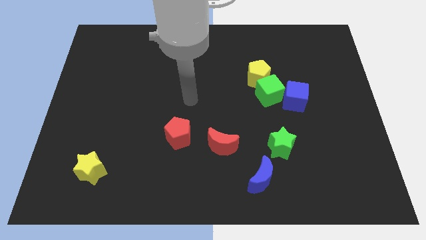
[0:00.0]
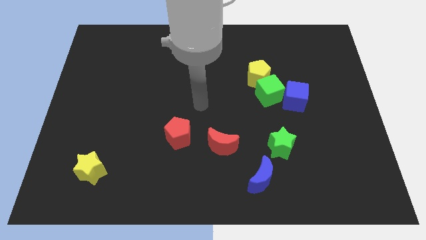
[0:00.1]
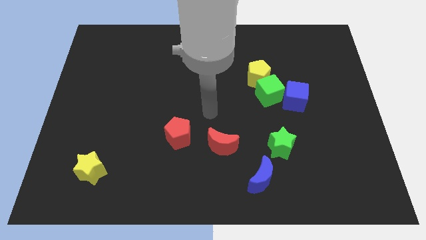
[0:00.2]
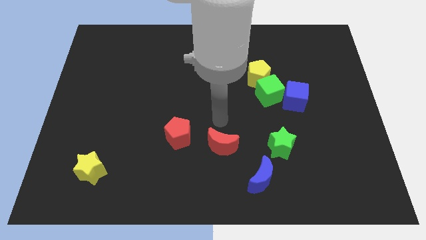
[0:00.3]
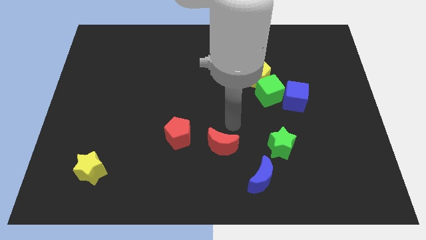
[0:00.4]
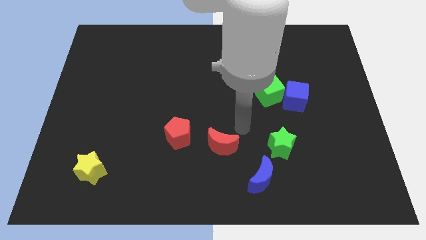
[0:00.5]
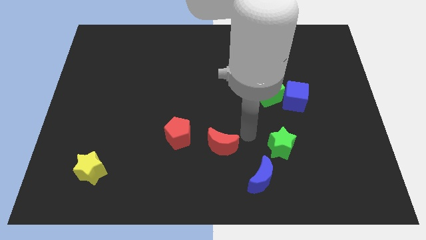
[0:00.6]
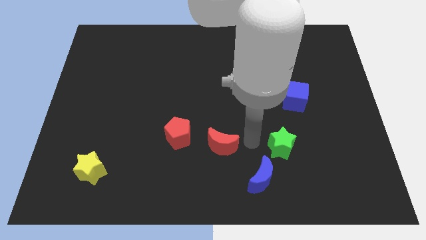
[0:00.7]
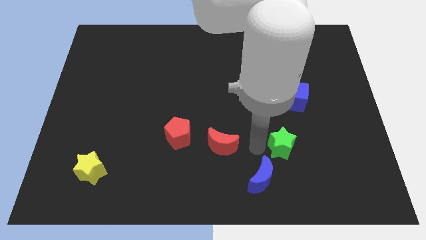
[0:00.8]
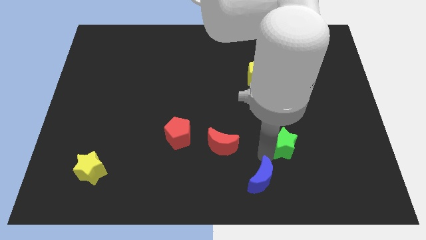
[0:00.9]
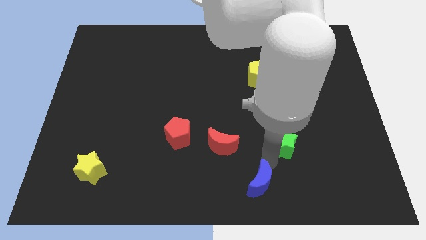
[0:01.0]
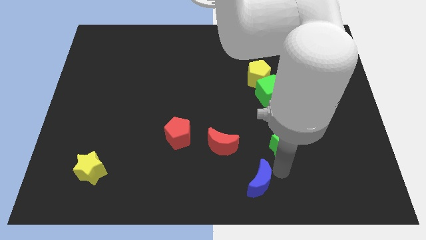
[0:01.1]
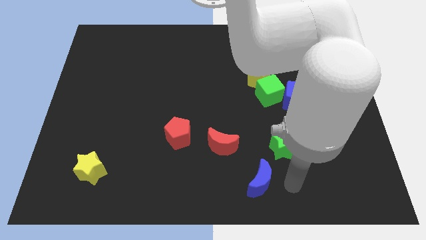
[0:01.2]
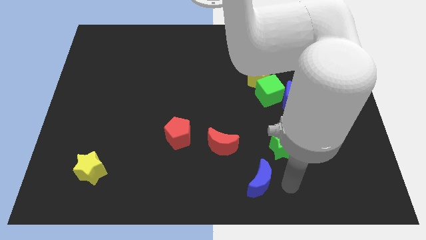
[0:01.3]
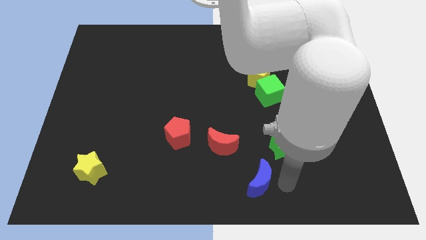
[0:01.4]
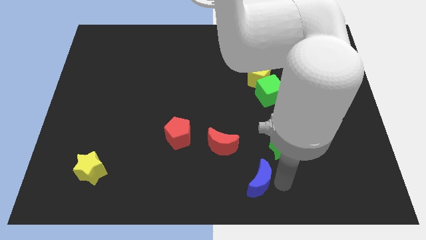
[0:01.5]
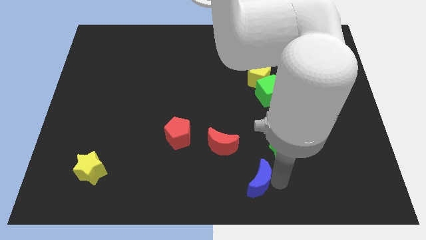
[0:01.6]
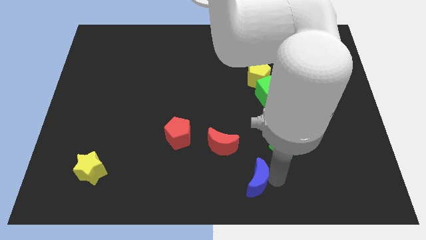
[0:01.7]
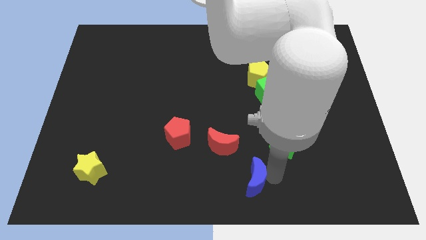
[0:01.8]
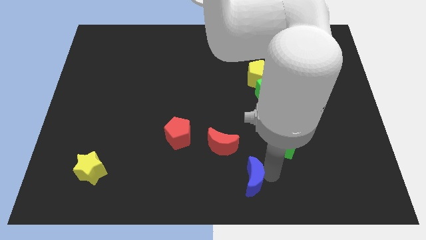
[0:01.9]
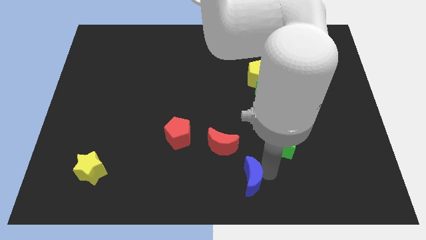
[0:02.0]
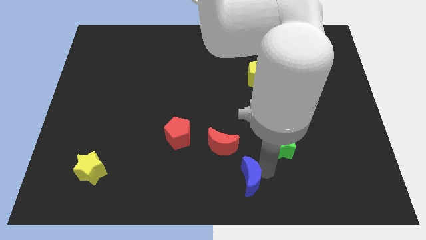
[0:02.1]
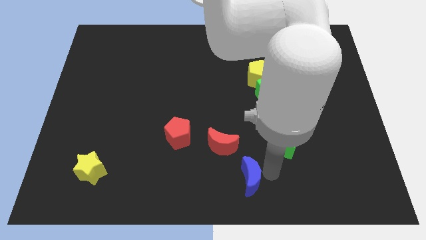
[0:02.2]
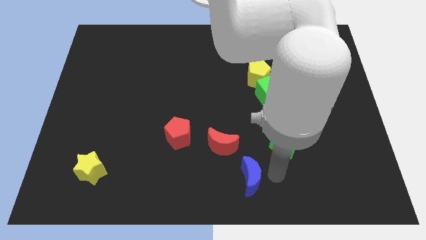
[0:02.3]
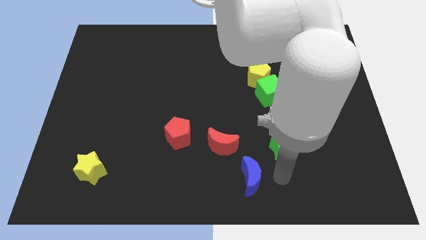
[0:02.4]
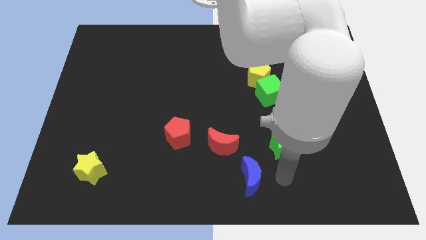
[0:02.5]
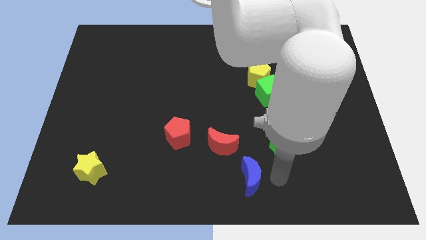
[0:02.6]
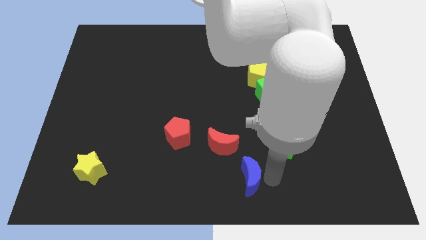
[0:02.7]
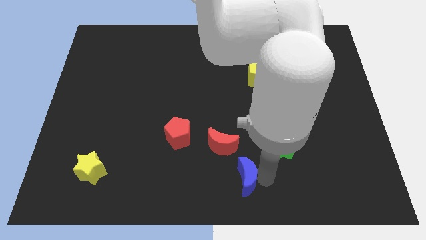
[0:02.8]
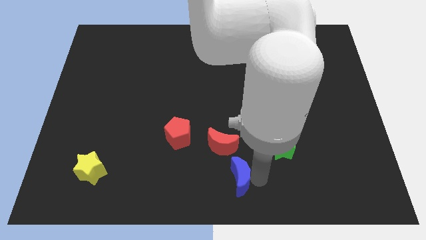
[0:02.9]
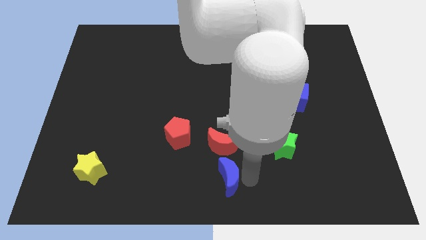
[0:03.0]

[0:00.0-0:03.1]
slightly move the blue moon left

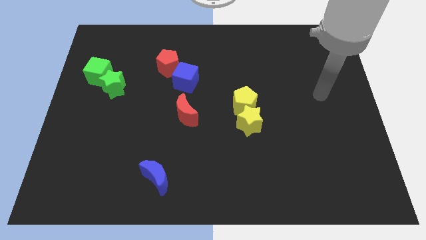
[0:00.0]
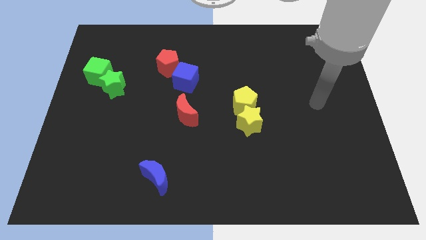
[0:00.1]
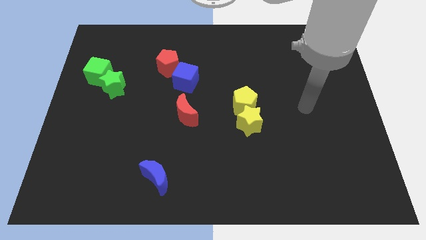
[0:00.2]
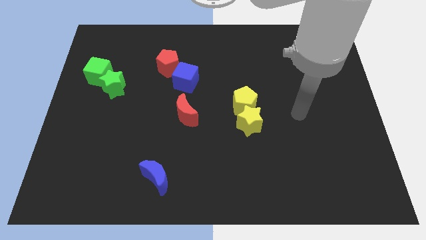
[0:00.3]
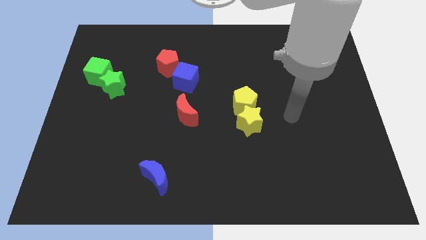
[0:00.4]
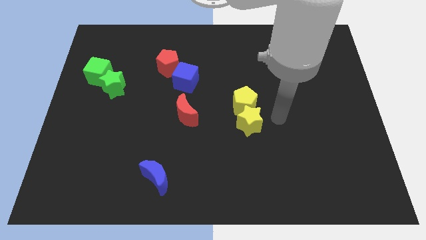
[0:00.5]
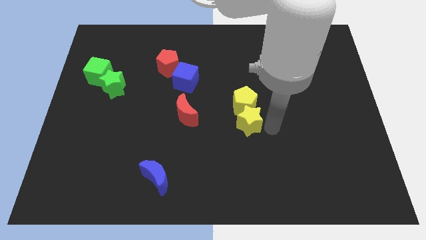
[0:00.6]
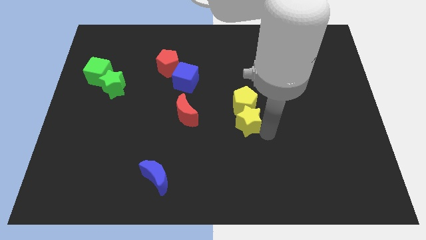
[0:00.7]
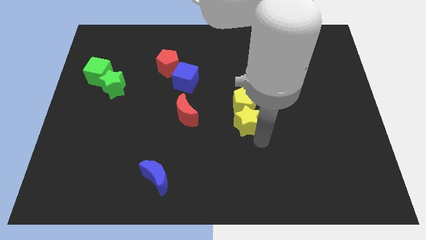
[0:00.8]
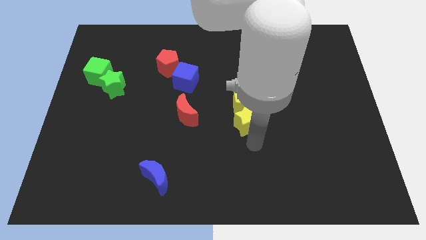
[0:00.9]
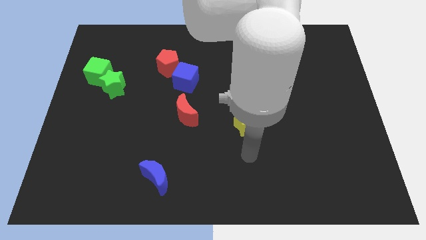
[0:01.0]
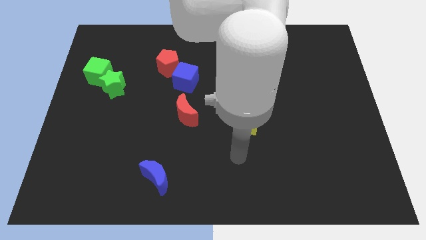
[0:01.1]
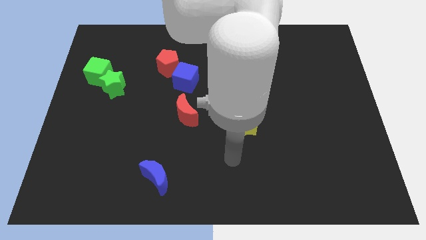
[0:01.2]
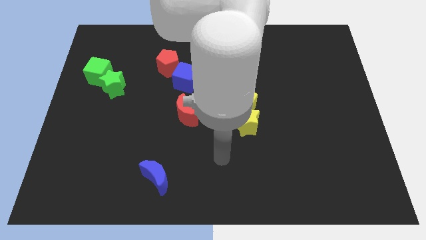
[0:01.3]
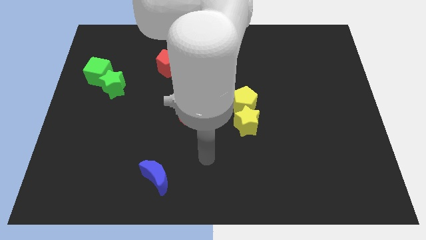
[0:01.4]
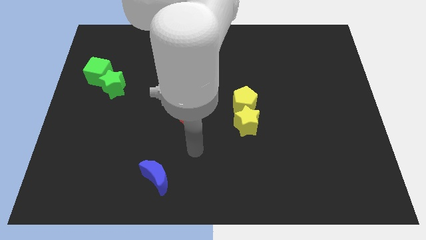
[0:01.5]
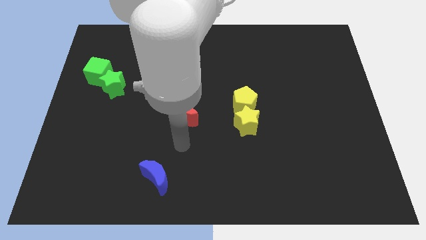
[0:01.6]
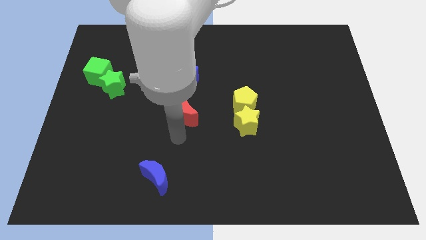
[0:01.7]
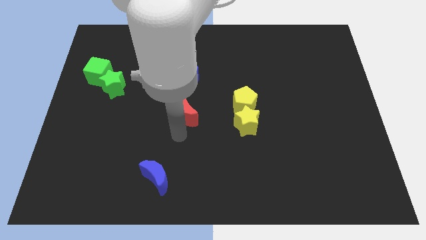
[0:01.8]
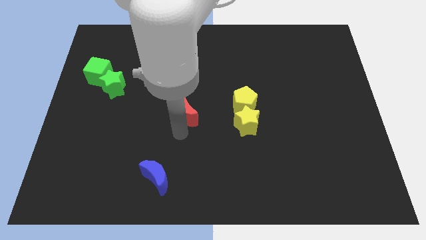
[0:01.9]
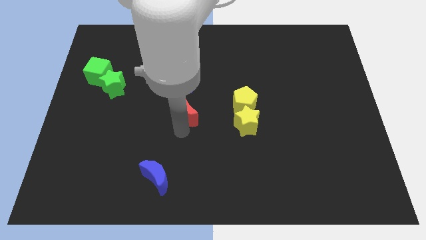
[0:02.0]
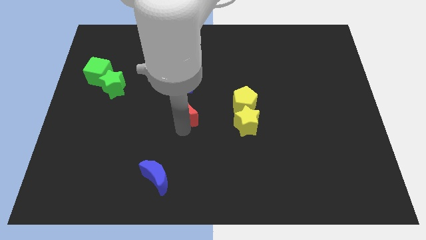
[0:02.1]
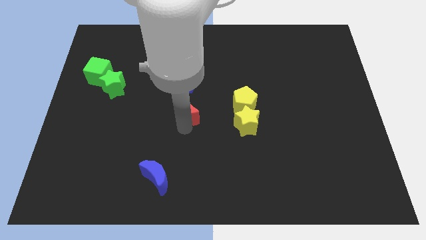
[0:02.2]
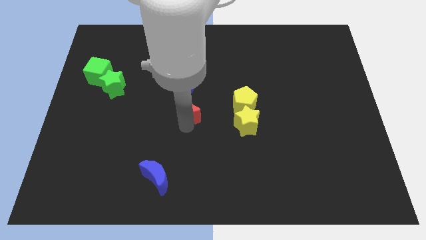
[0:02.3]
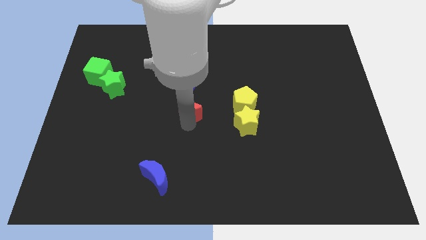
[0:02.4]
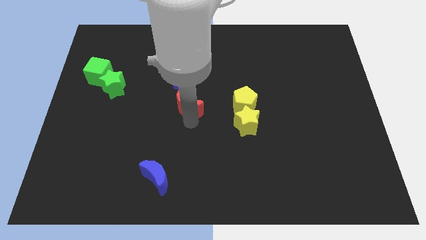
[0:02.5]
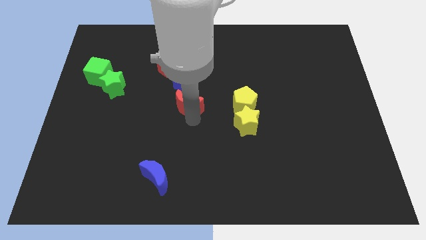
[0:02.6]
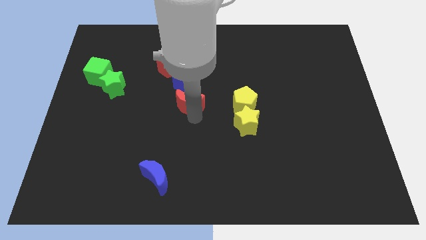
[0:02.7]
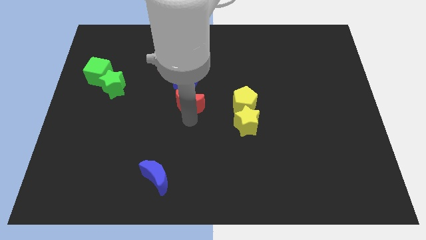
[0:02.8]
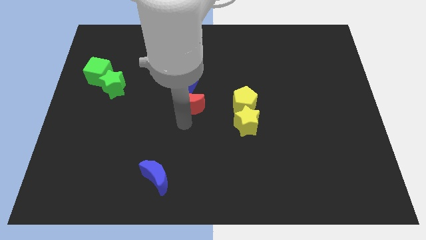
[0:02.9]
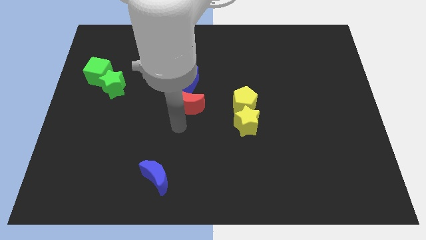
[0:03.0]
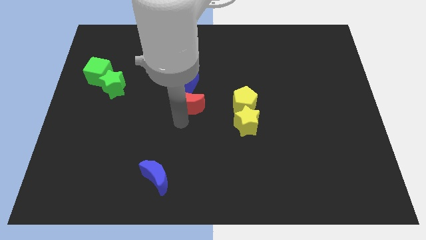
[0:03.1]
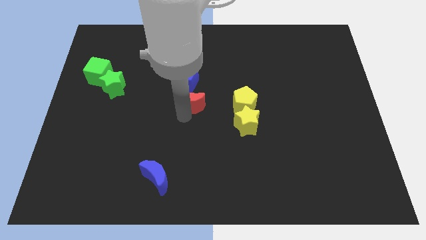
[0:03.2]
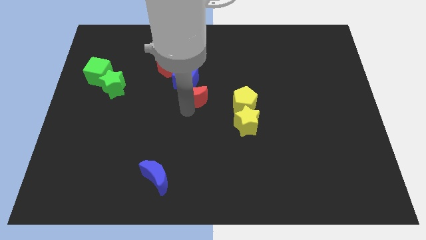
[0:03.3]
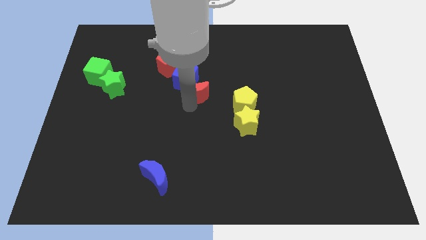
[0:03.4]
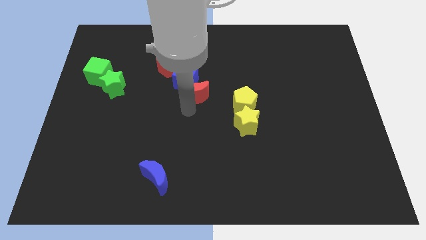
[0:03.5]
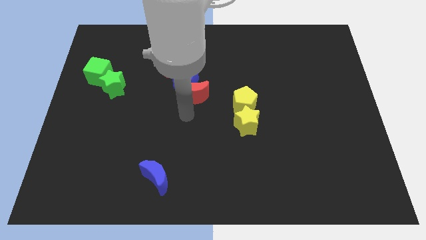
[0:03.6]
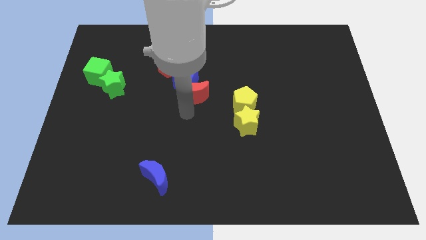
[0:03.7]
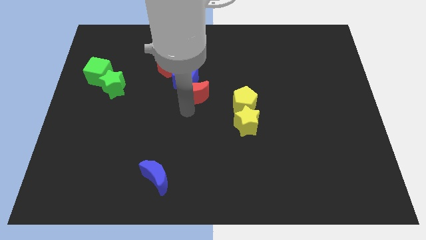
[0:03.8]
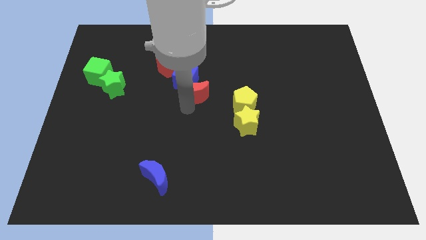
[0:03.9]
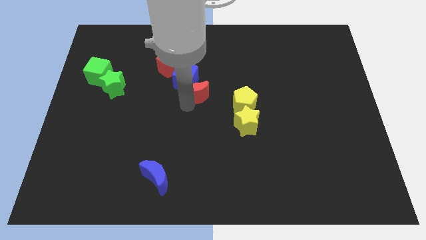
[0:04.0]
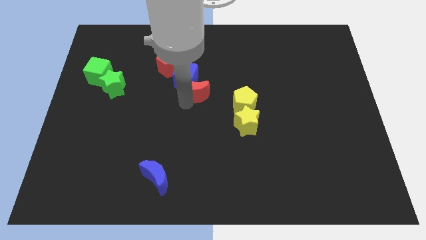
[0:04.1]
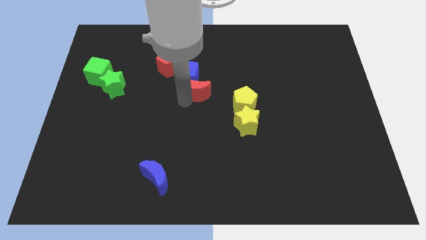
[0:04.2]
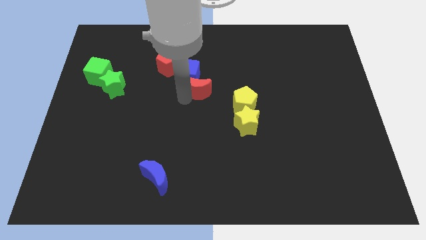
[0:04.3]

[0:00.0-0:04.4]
move the red moon a little bit upwards

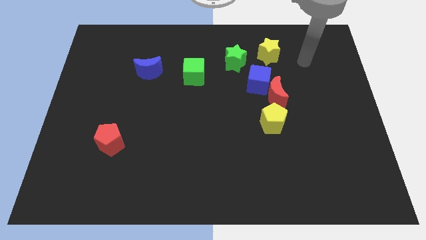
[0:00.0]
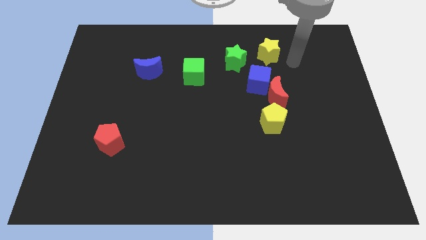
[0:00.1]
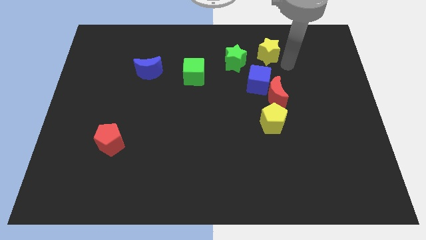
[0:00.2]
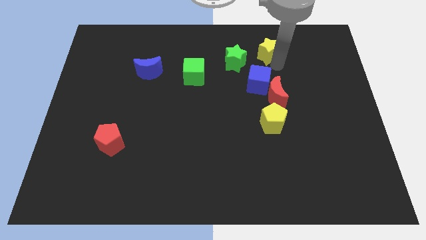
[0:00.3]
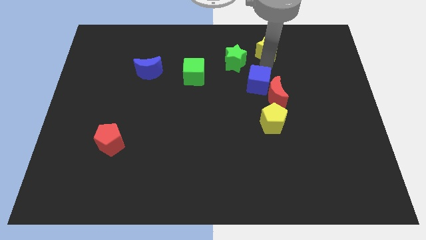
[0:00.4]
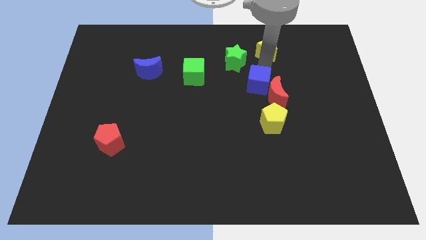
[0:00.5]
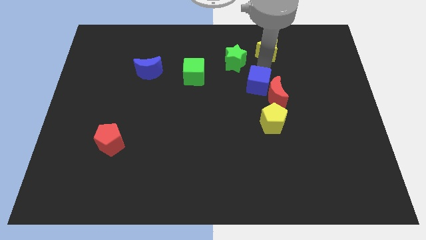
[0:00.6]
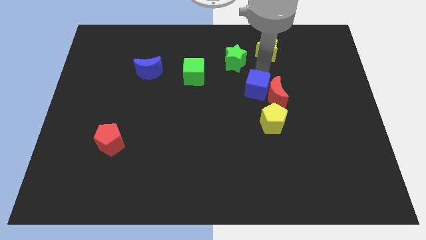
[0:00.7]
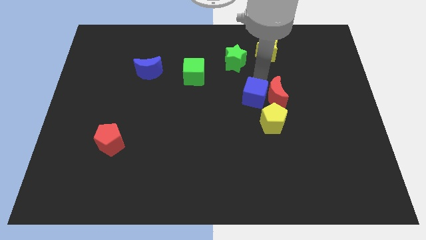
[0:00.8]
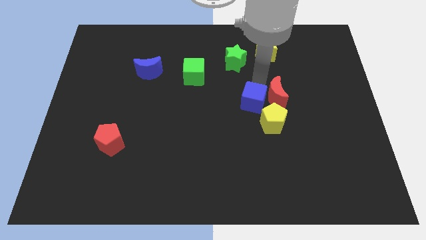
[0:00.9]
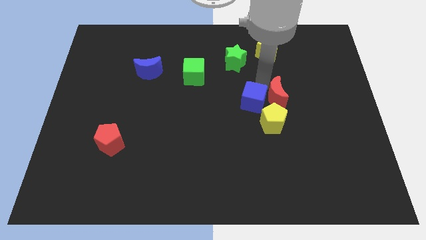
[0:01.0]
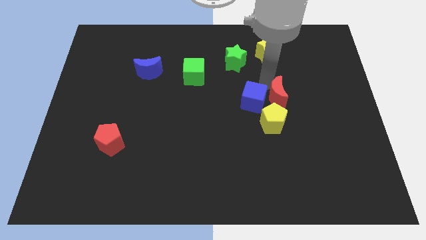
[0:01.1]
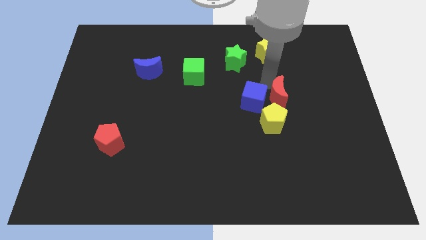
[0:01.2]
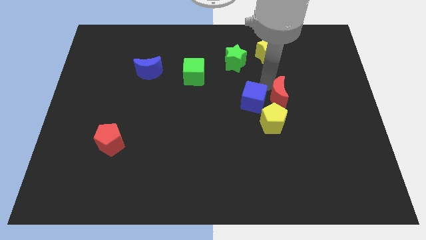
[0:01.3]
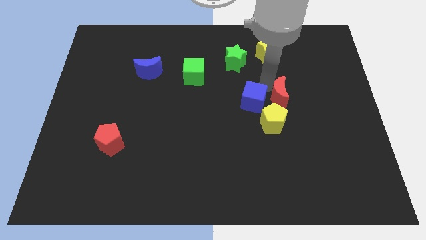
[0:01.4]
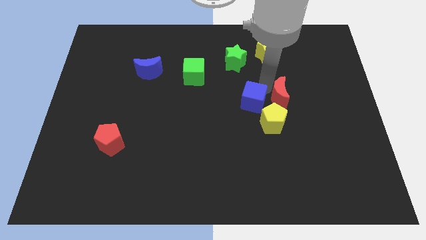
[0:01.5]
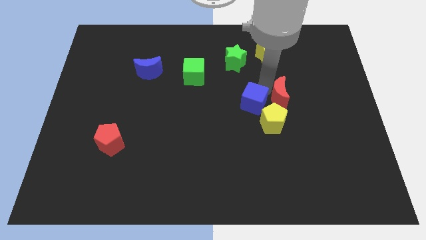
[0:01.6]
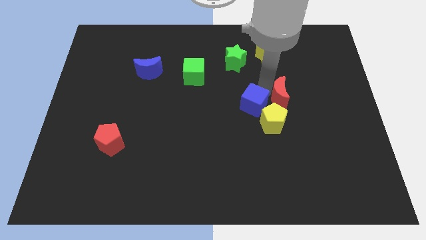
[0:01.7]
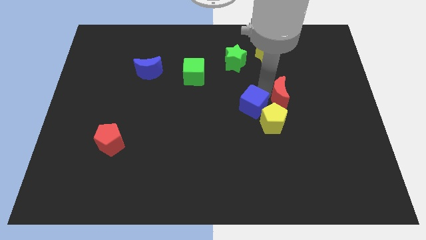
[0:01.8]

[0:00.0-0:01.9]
move the blue cube down a little
